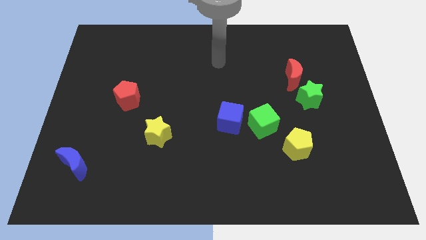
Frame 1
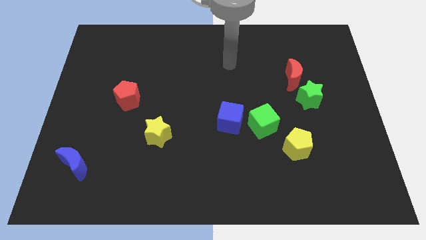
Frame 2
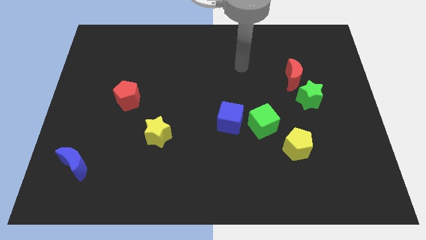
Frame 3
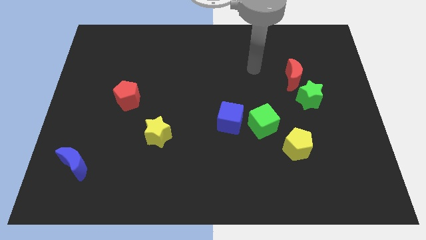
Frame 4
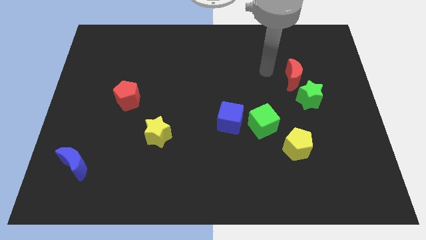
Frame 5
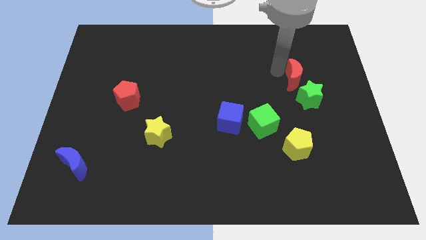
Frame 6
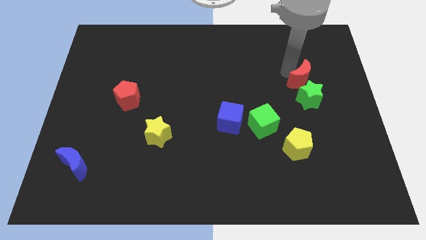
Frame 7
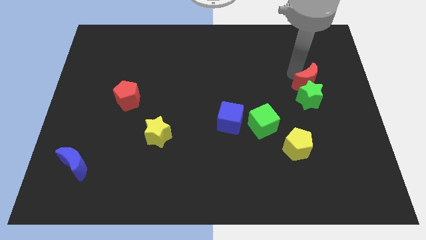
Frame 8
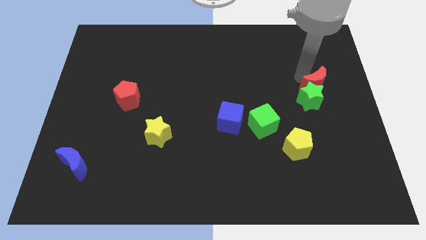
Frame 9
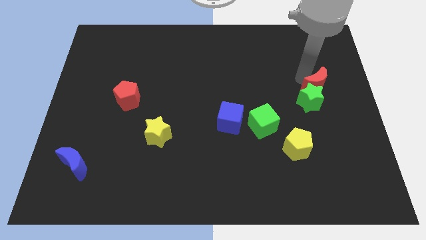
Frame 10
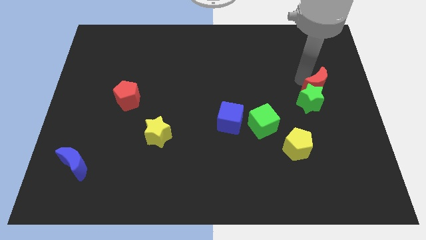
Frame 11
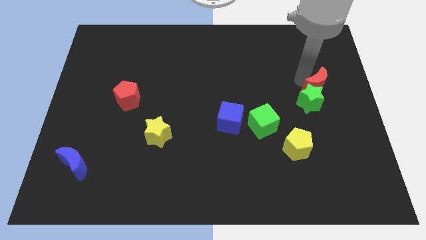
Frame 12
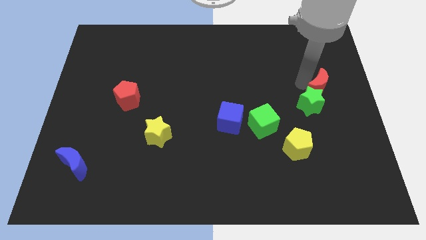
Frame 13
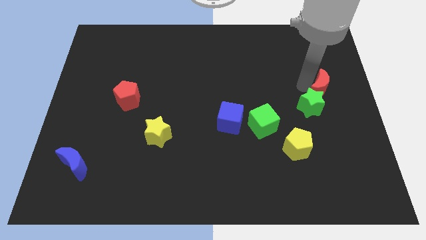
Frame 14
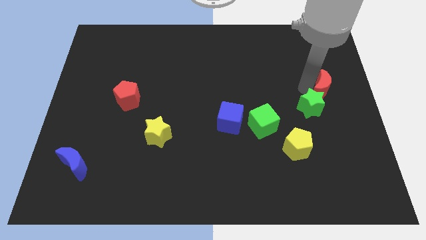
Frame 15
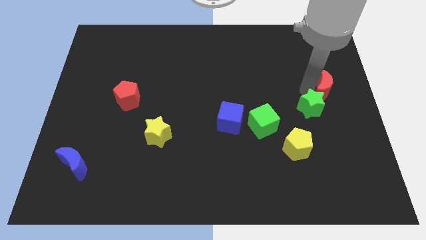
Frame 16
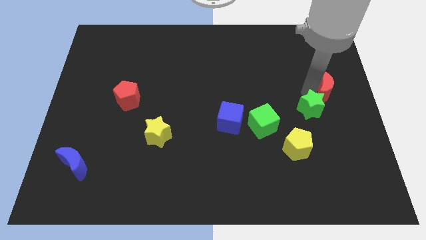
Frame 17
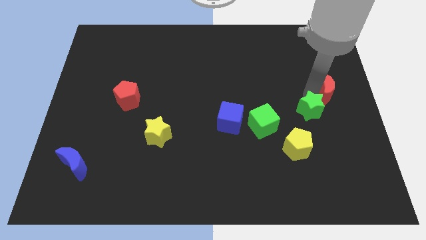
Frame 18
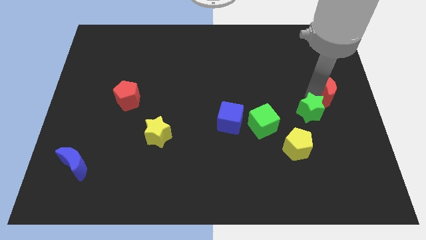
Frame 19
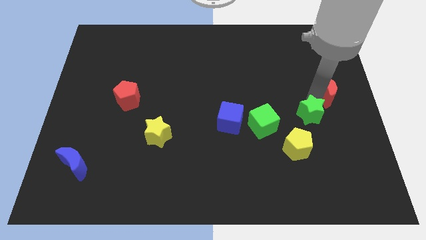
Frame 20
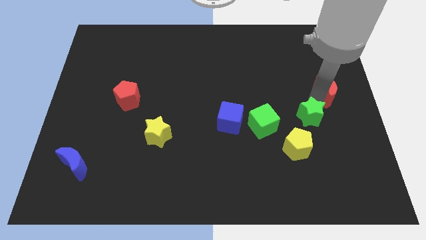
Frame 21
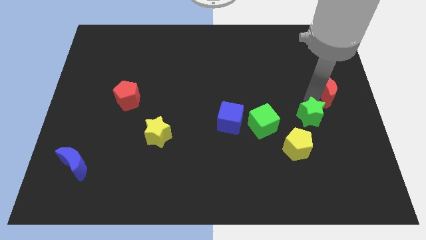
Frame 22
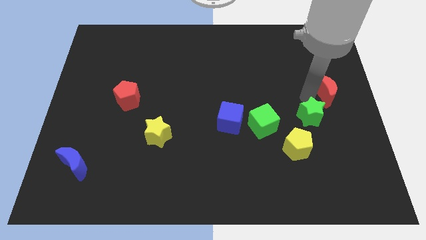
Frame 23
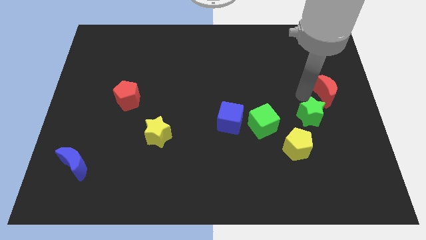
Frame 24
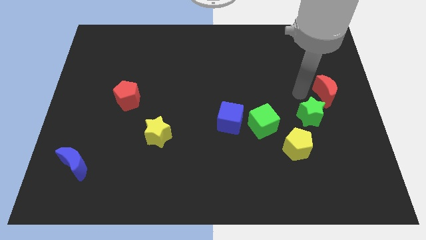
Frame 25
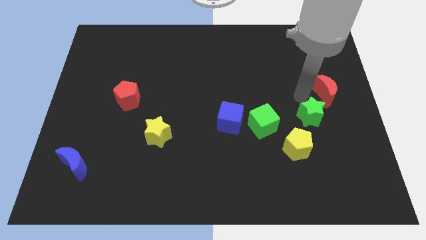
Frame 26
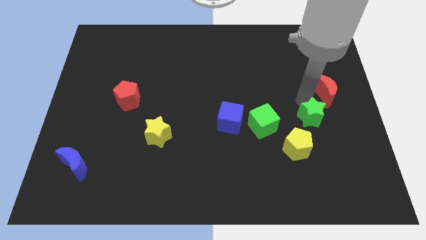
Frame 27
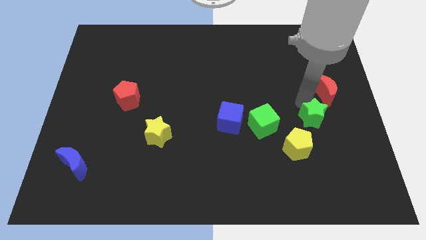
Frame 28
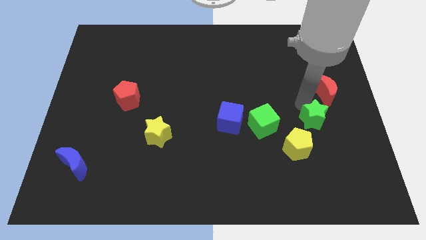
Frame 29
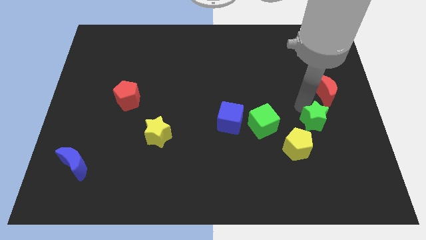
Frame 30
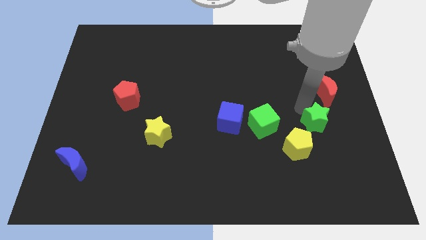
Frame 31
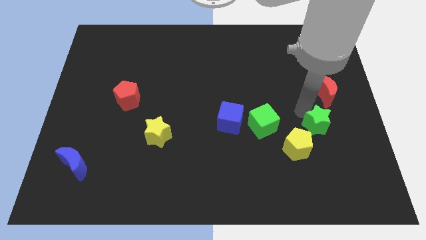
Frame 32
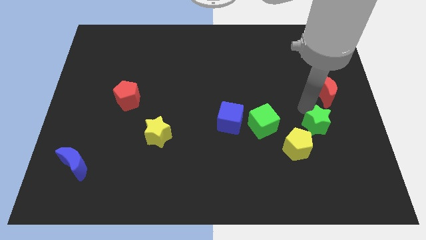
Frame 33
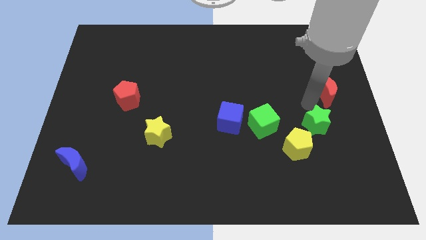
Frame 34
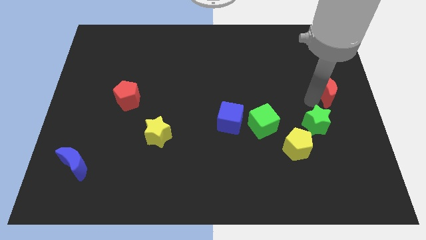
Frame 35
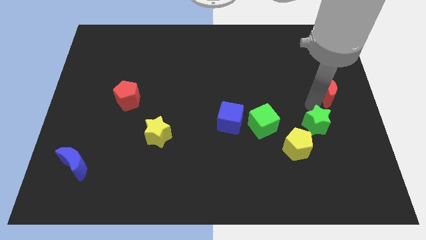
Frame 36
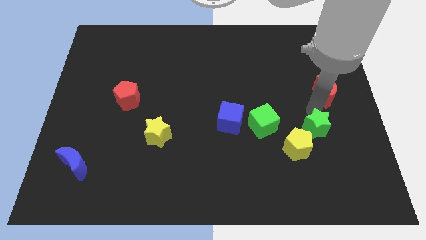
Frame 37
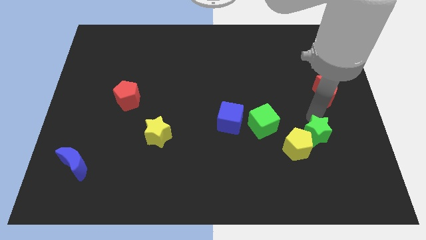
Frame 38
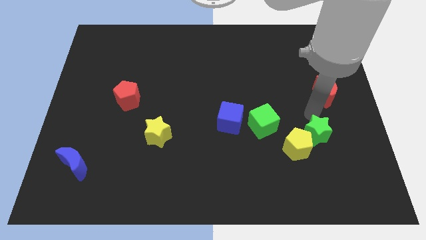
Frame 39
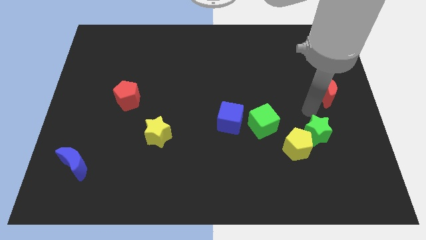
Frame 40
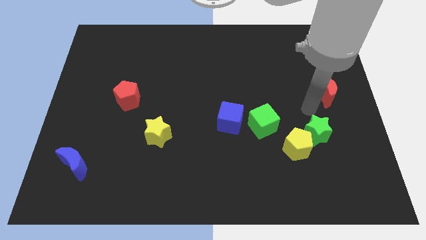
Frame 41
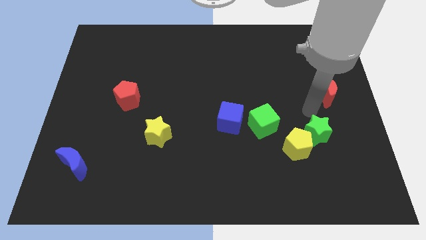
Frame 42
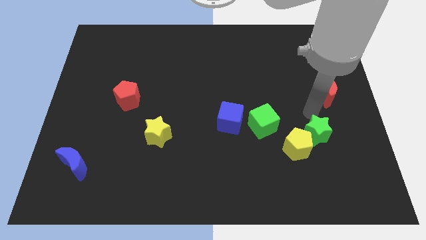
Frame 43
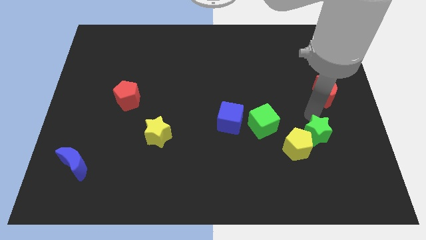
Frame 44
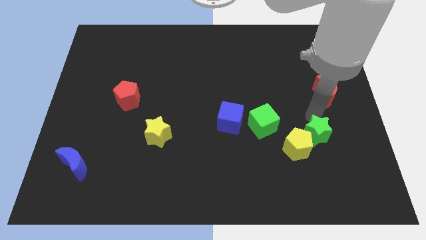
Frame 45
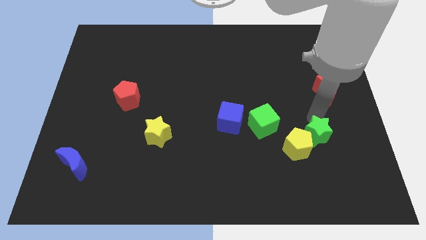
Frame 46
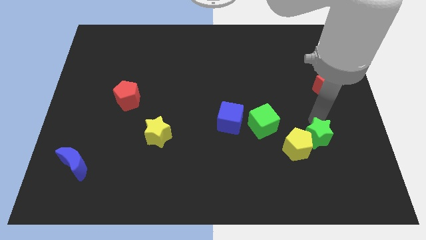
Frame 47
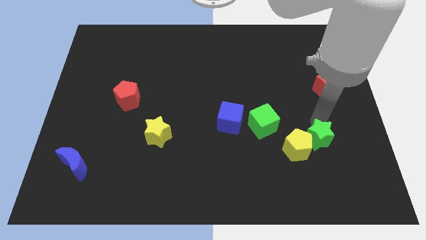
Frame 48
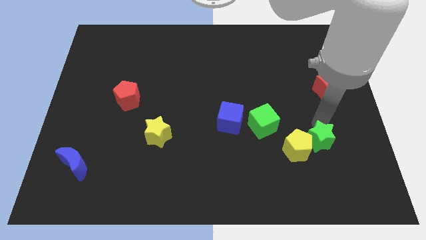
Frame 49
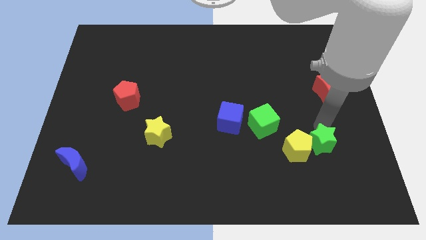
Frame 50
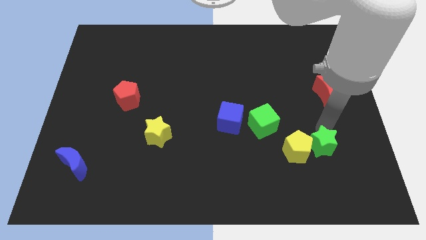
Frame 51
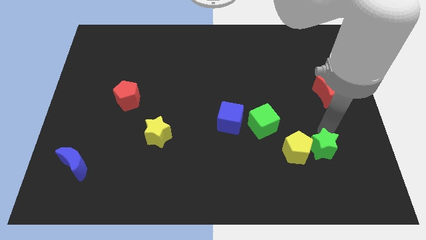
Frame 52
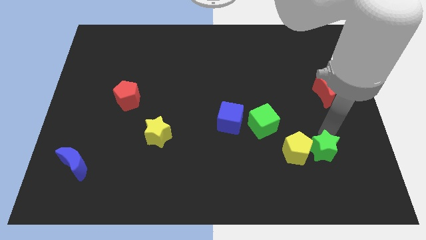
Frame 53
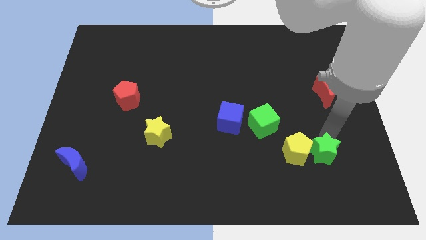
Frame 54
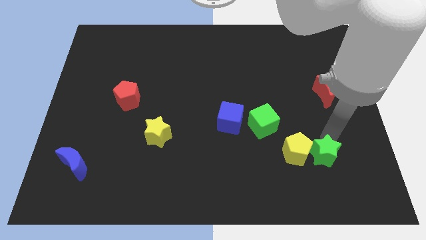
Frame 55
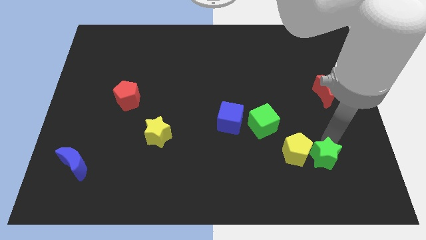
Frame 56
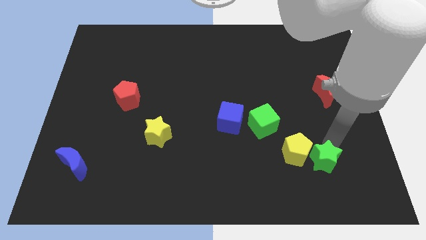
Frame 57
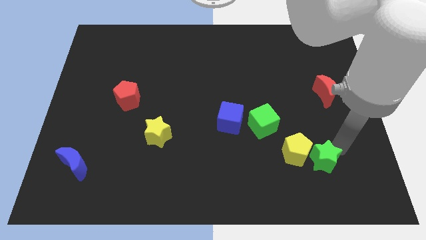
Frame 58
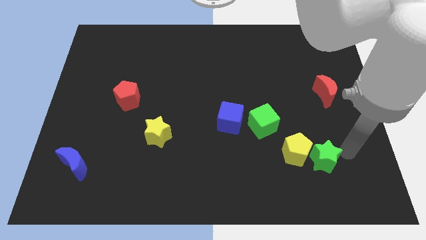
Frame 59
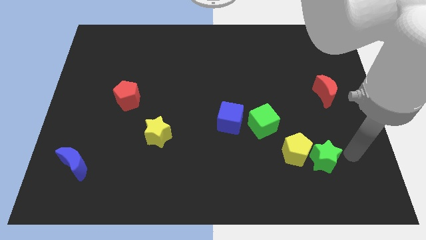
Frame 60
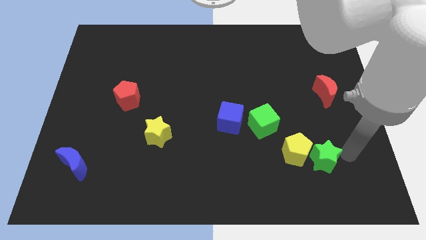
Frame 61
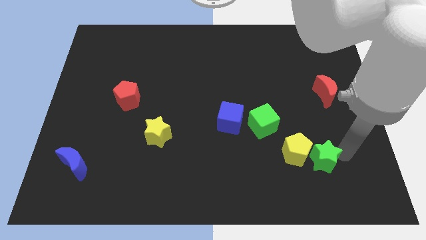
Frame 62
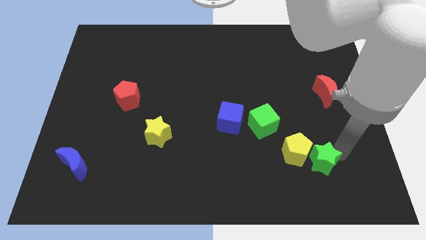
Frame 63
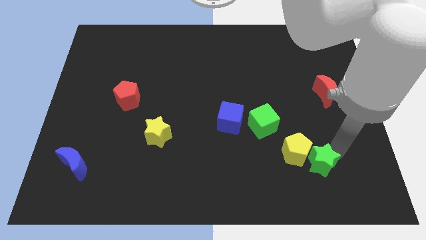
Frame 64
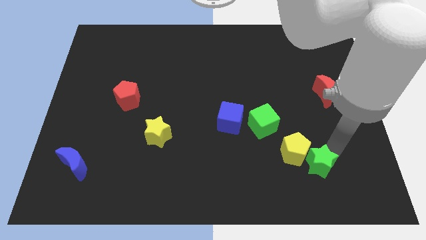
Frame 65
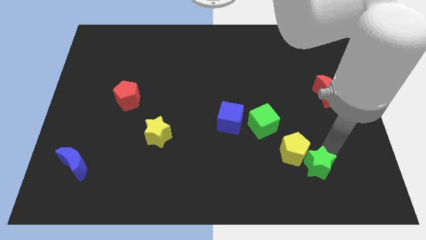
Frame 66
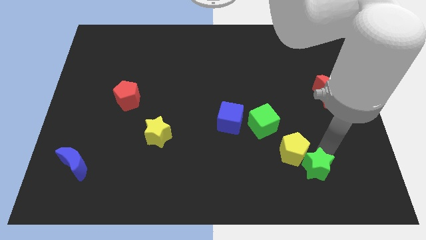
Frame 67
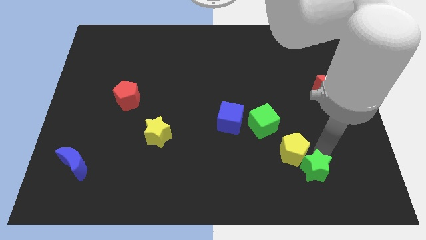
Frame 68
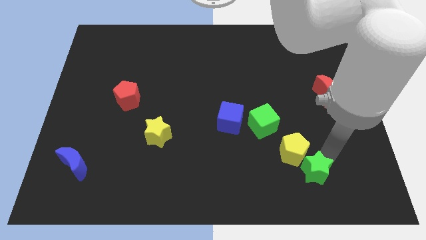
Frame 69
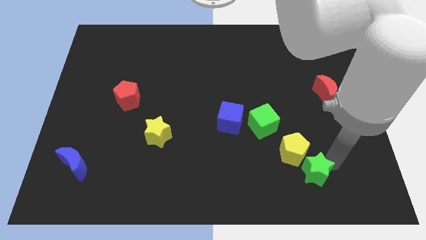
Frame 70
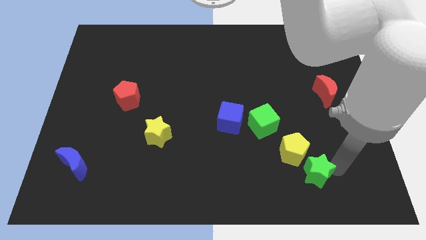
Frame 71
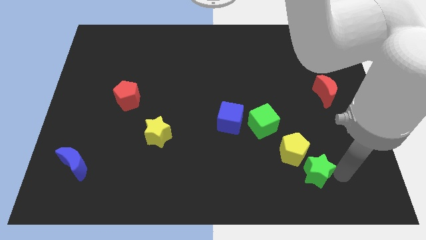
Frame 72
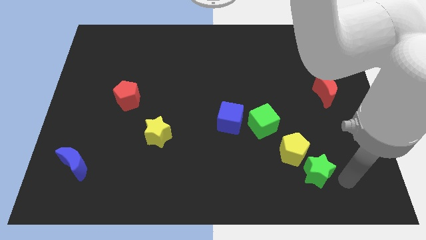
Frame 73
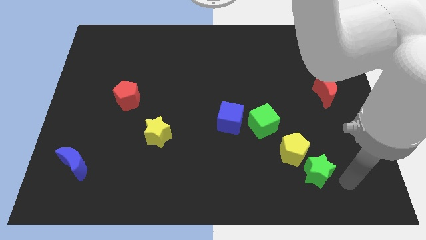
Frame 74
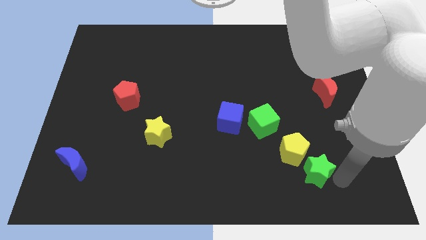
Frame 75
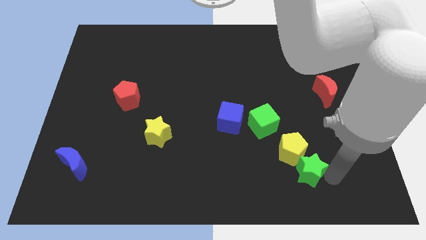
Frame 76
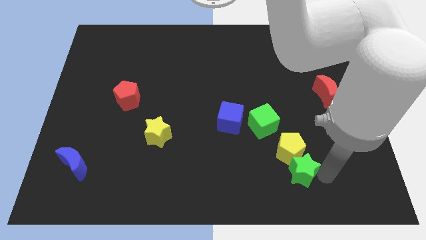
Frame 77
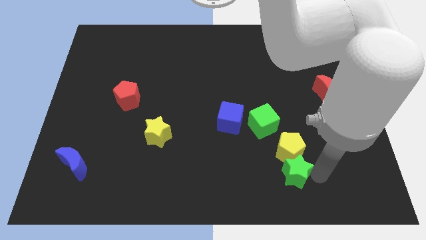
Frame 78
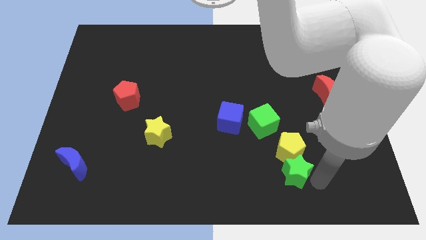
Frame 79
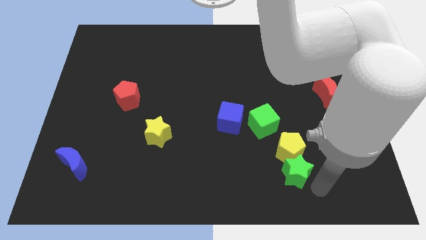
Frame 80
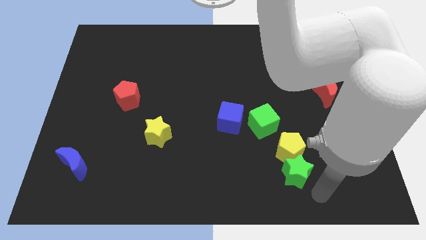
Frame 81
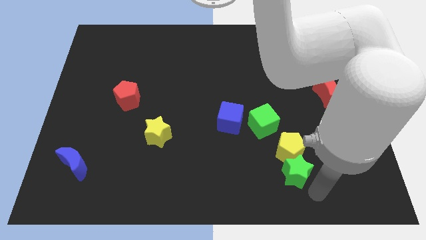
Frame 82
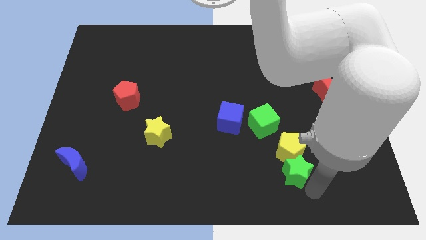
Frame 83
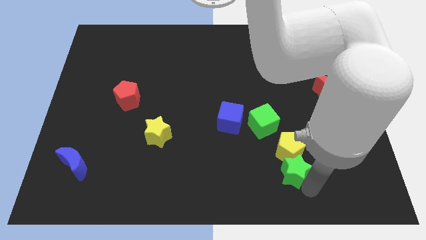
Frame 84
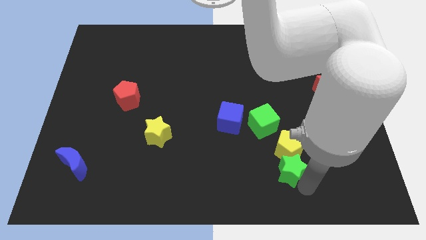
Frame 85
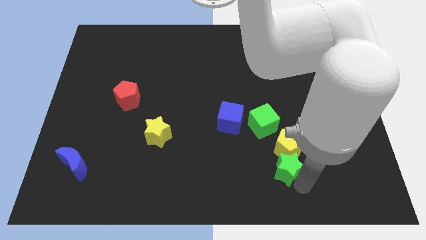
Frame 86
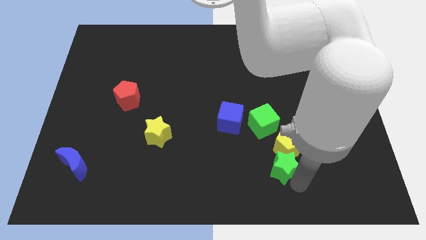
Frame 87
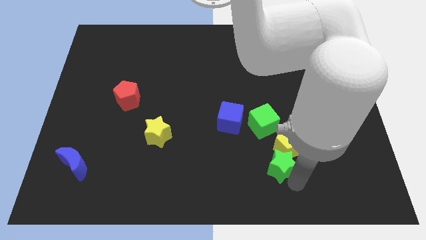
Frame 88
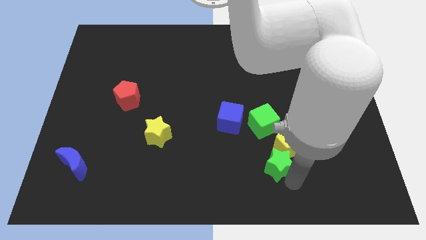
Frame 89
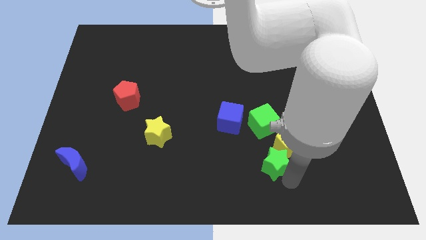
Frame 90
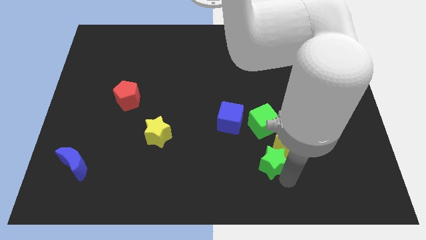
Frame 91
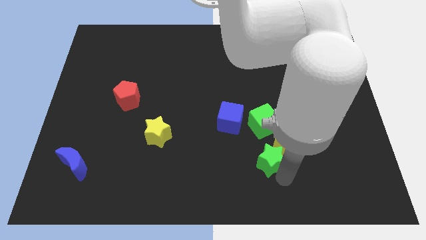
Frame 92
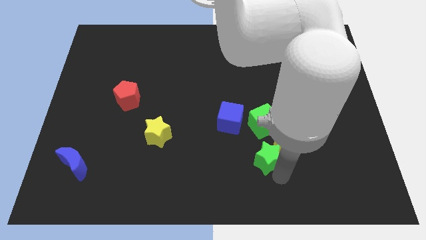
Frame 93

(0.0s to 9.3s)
slide the green star diagonally down and to the right of the blue cube
